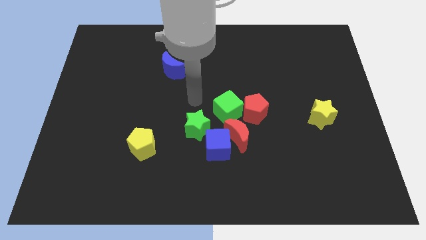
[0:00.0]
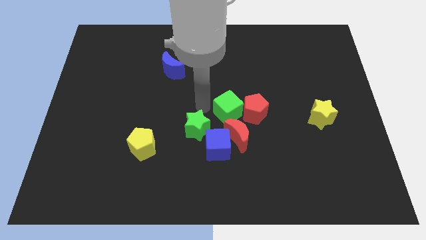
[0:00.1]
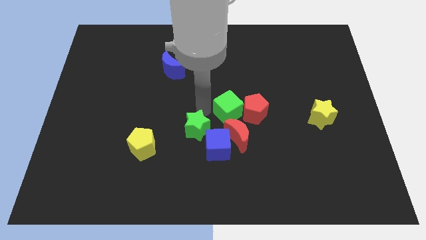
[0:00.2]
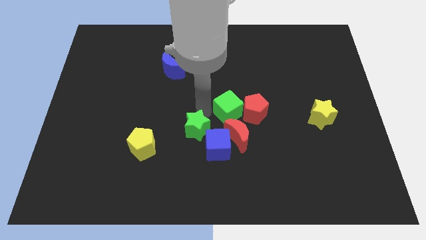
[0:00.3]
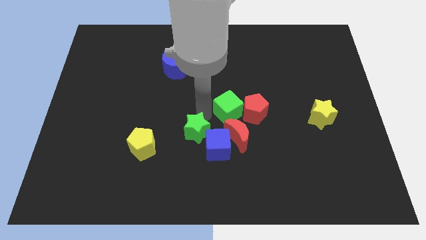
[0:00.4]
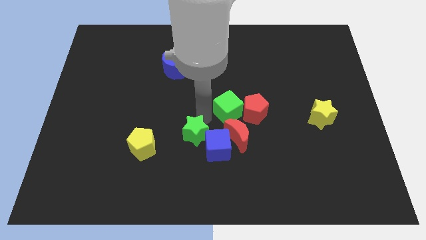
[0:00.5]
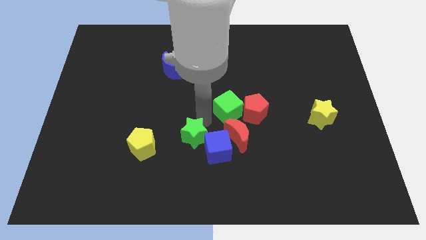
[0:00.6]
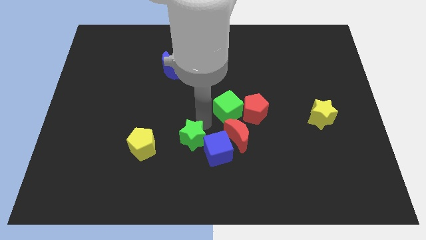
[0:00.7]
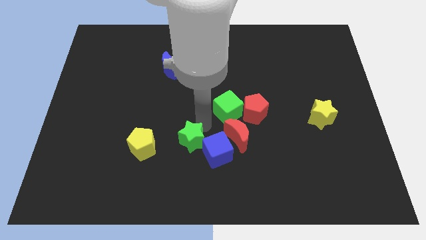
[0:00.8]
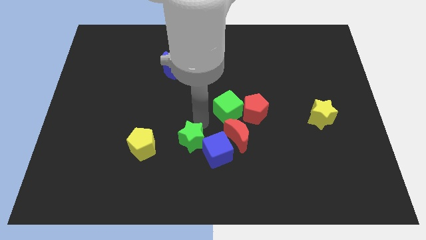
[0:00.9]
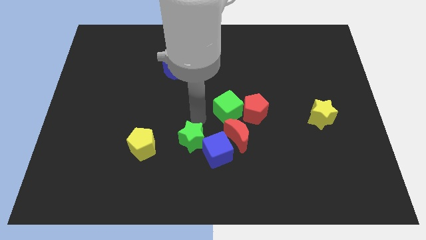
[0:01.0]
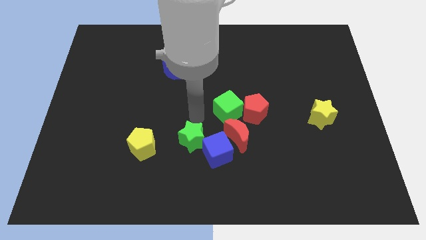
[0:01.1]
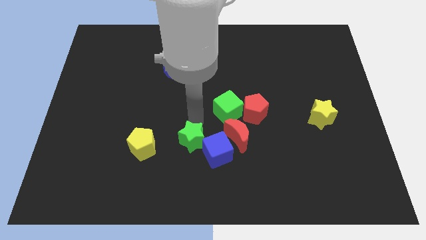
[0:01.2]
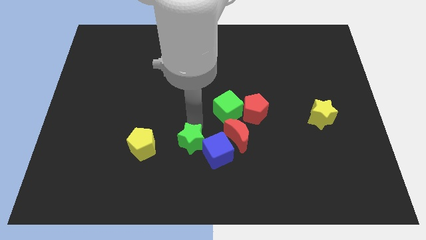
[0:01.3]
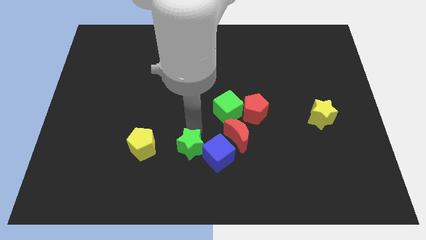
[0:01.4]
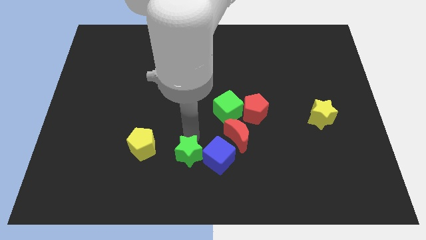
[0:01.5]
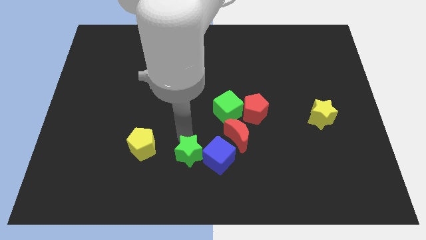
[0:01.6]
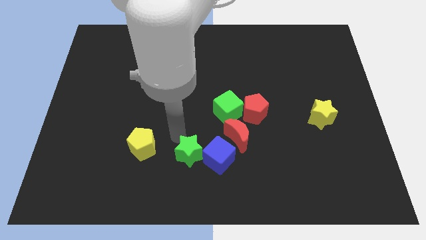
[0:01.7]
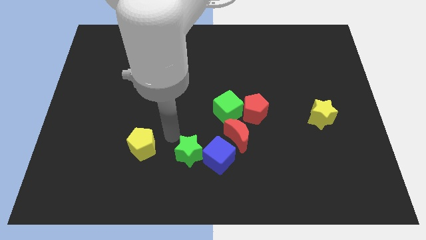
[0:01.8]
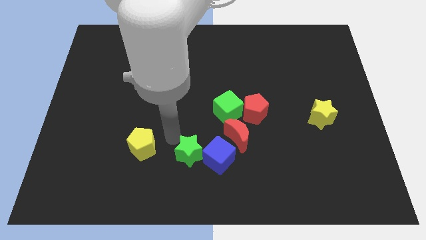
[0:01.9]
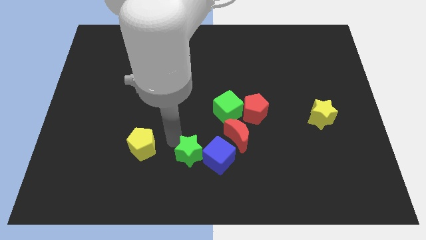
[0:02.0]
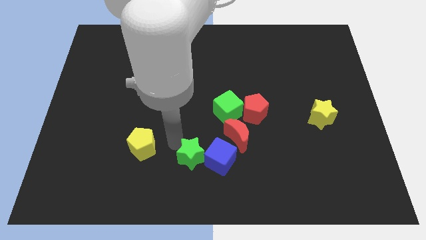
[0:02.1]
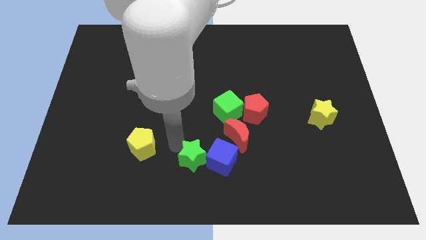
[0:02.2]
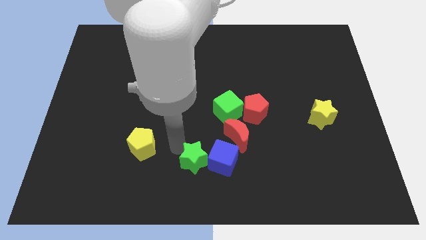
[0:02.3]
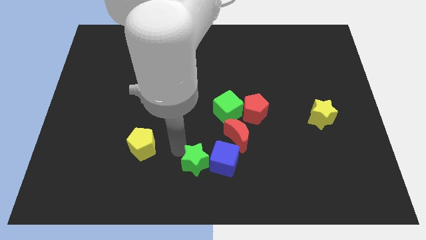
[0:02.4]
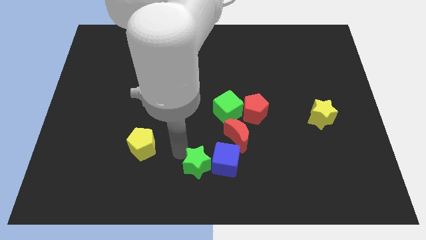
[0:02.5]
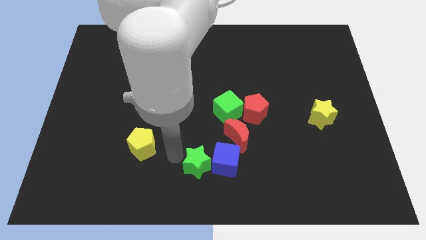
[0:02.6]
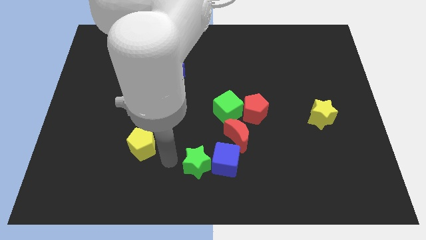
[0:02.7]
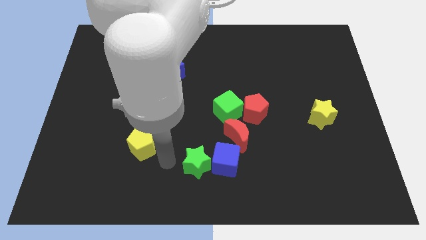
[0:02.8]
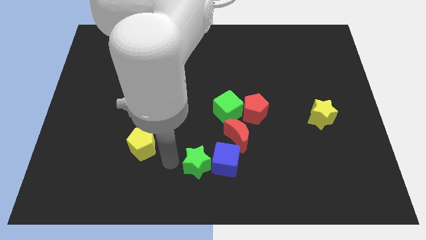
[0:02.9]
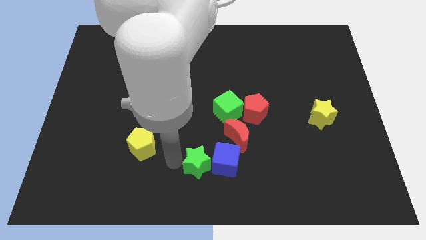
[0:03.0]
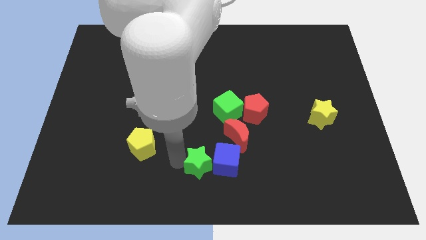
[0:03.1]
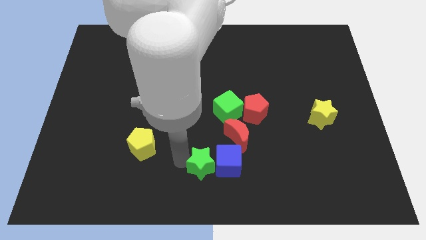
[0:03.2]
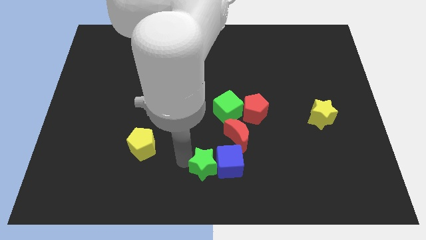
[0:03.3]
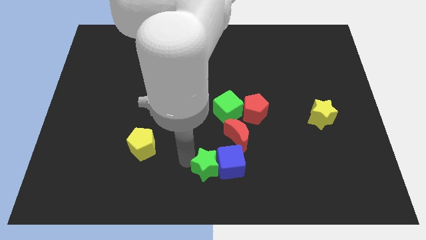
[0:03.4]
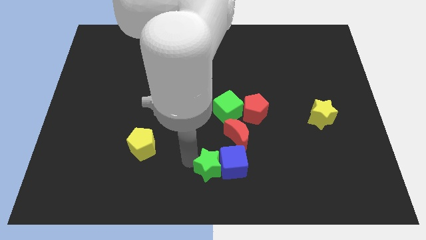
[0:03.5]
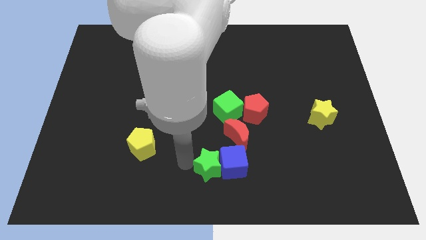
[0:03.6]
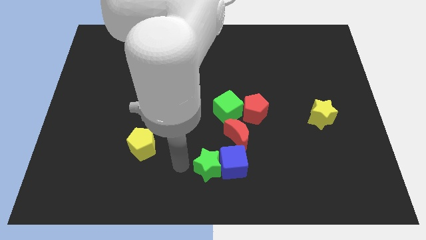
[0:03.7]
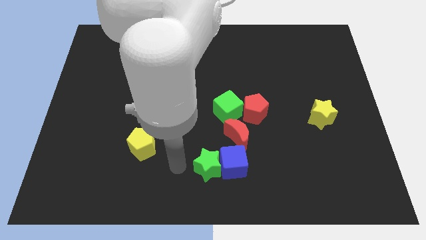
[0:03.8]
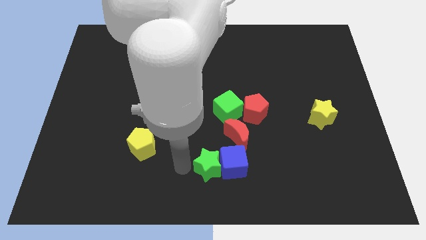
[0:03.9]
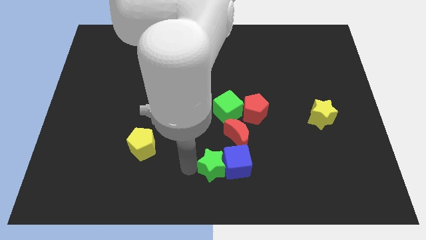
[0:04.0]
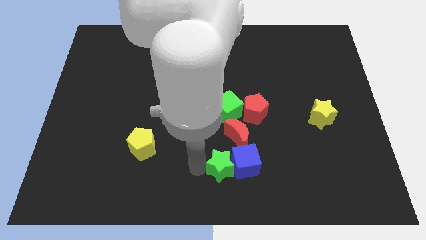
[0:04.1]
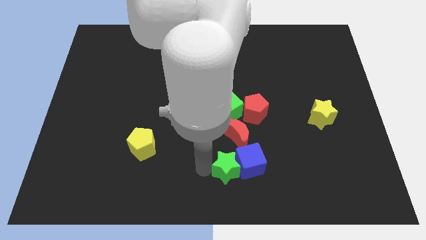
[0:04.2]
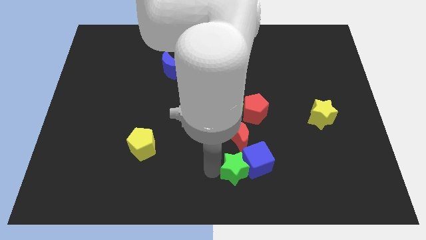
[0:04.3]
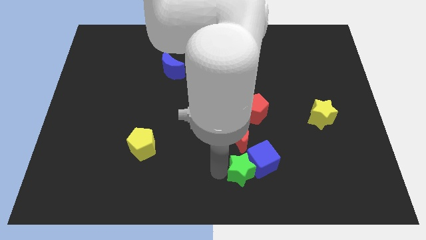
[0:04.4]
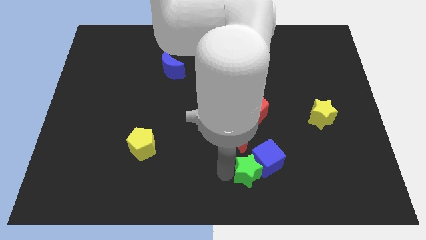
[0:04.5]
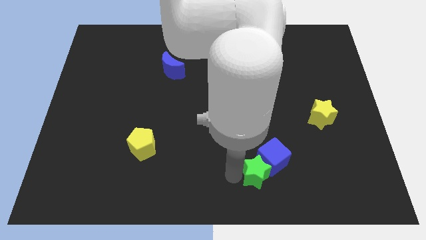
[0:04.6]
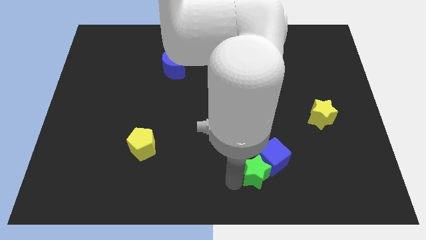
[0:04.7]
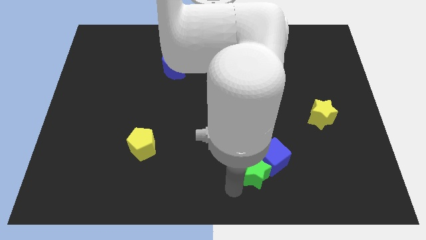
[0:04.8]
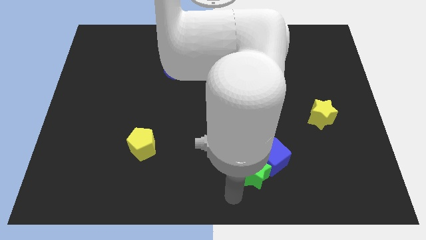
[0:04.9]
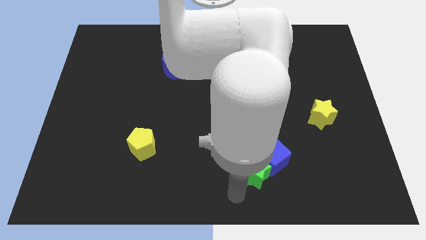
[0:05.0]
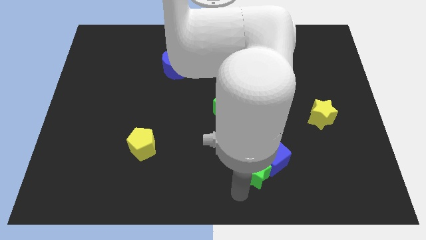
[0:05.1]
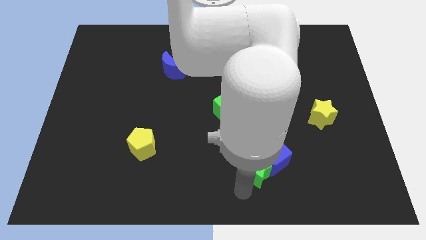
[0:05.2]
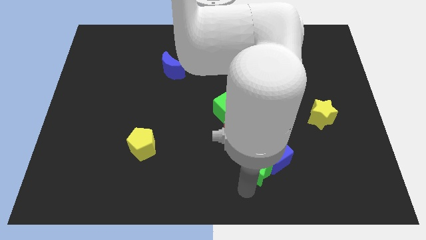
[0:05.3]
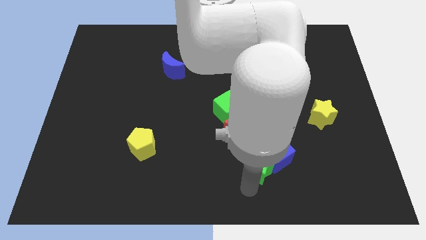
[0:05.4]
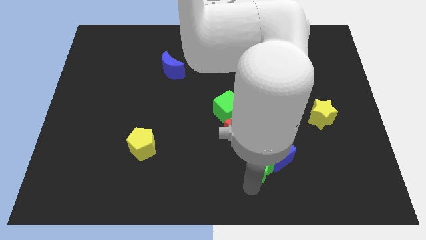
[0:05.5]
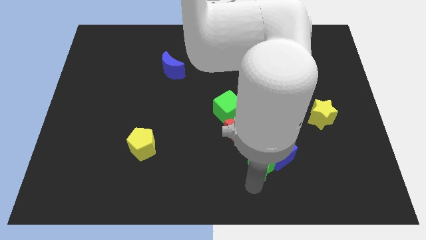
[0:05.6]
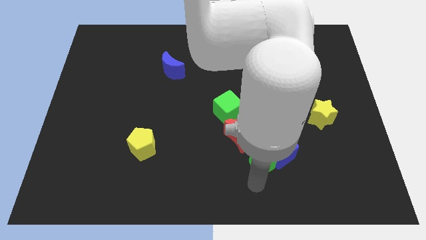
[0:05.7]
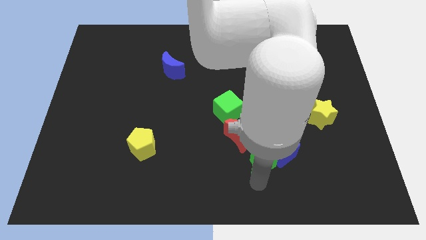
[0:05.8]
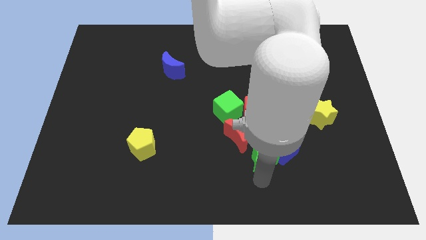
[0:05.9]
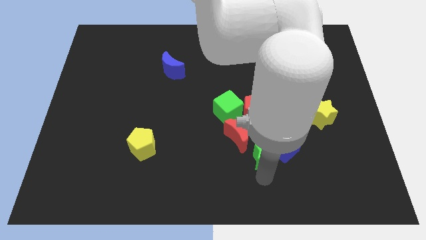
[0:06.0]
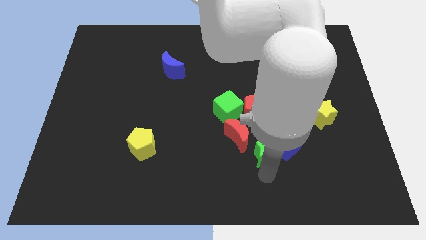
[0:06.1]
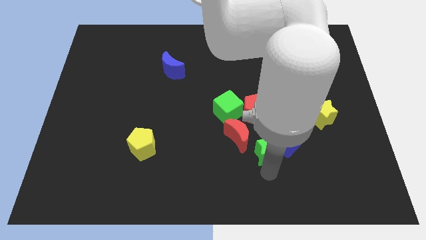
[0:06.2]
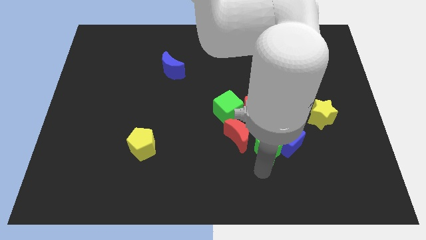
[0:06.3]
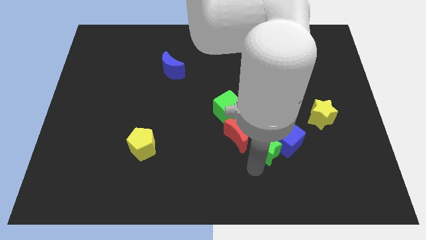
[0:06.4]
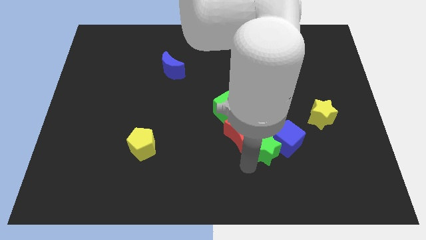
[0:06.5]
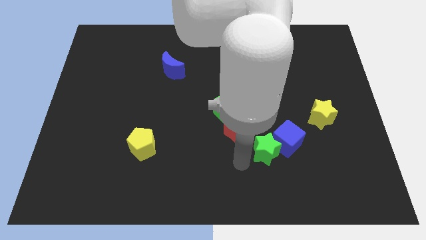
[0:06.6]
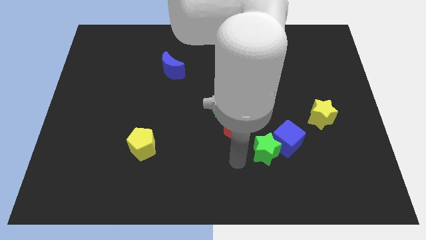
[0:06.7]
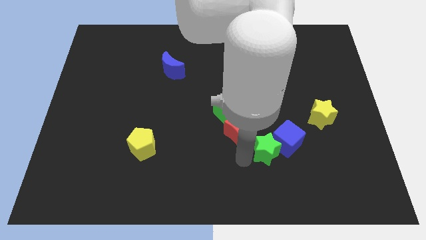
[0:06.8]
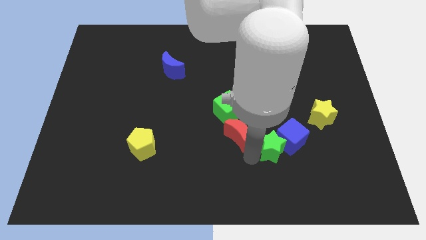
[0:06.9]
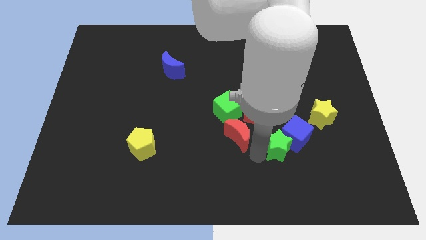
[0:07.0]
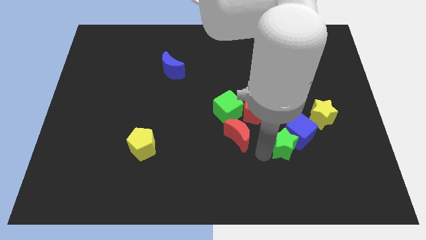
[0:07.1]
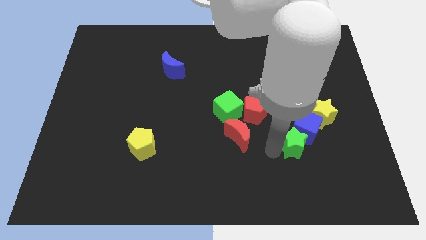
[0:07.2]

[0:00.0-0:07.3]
push the green star to the right

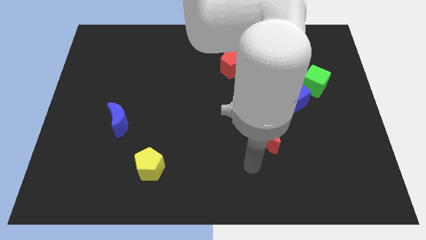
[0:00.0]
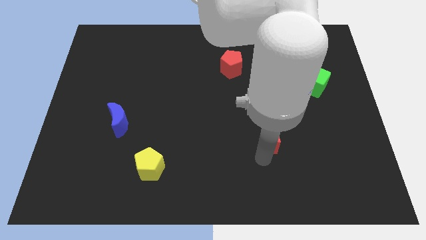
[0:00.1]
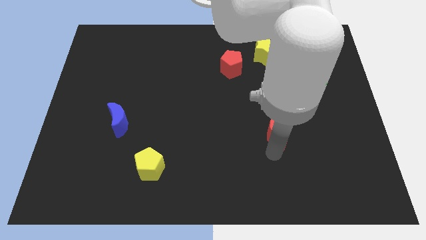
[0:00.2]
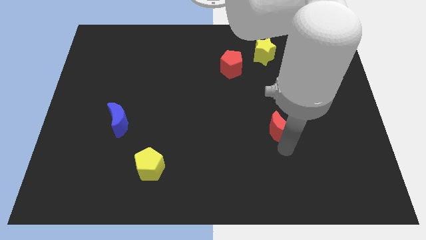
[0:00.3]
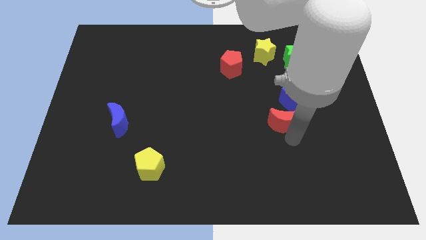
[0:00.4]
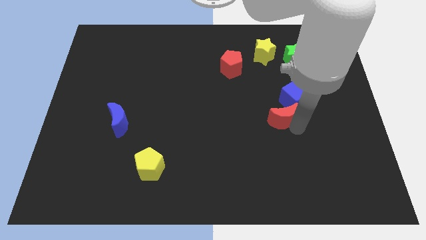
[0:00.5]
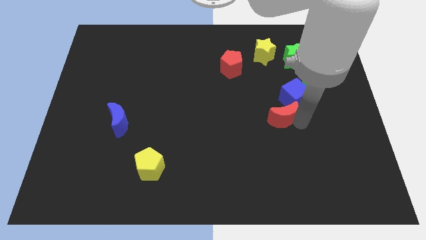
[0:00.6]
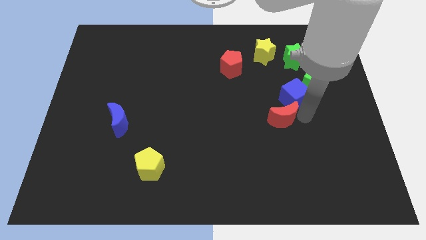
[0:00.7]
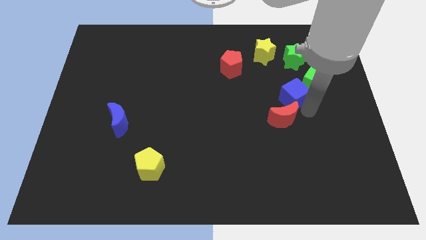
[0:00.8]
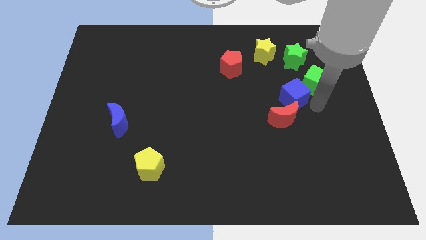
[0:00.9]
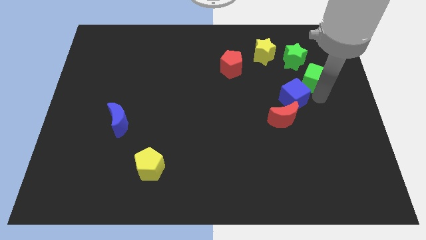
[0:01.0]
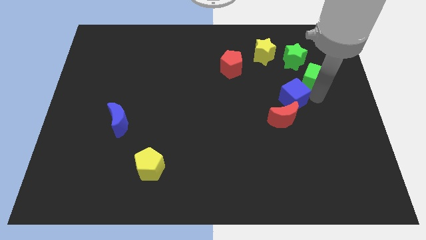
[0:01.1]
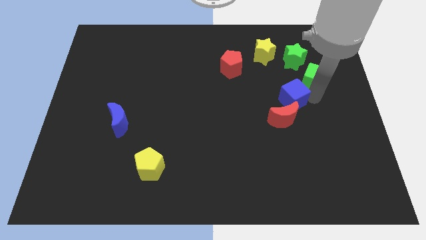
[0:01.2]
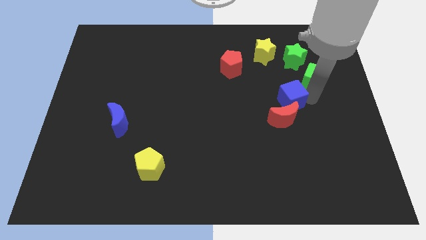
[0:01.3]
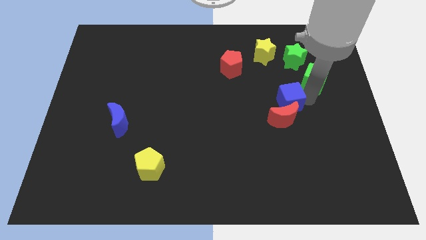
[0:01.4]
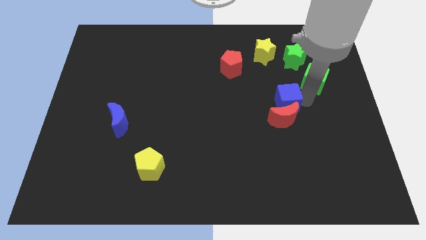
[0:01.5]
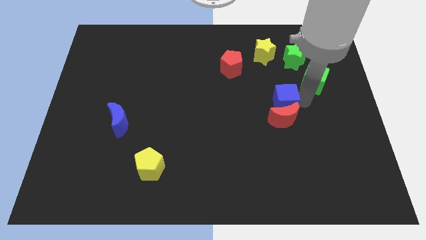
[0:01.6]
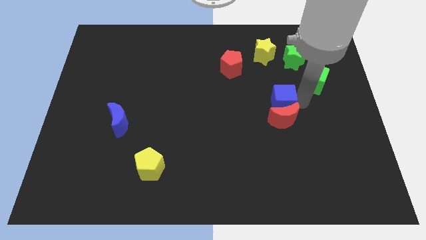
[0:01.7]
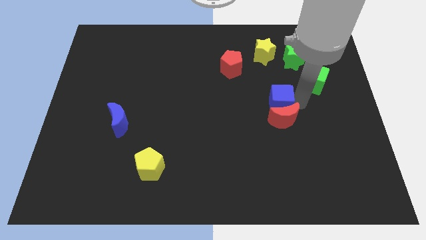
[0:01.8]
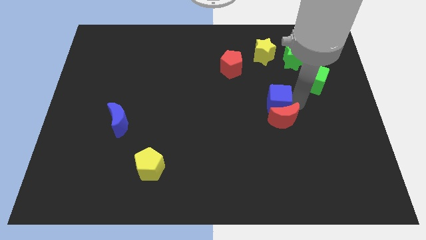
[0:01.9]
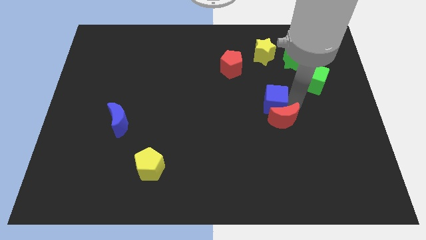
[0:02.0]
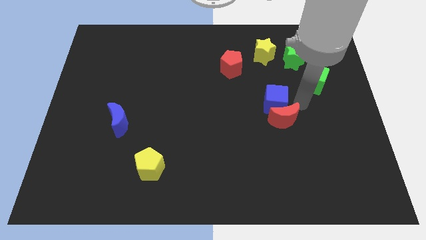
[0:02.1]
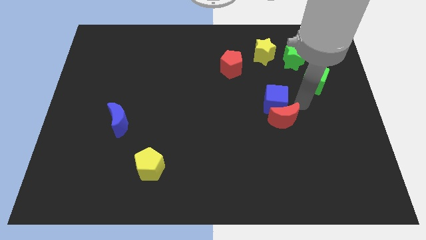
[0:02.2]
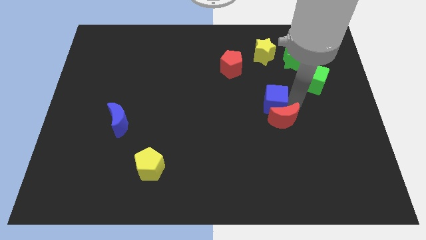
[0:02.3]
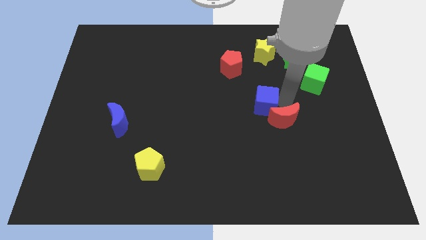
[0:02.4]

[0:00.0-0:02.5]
move the blue cube to the left a little
